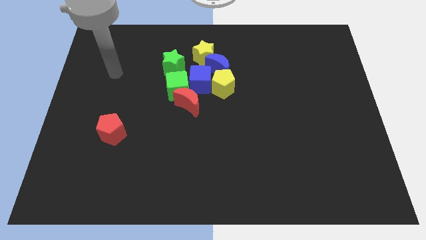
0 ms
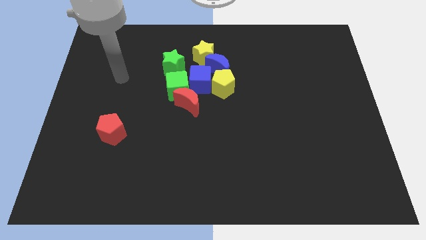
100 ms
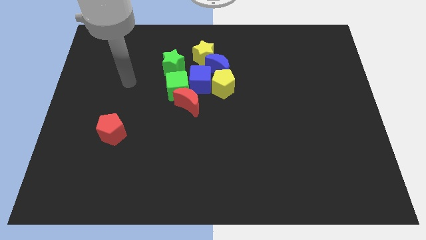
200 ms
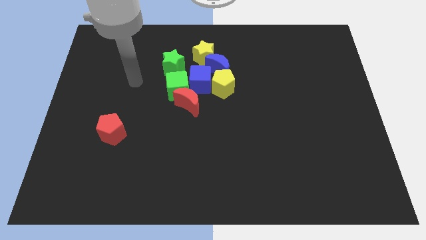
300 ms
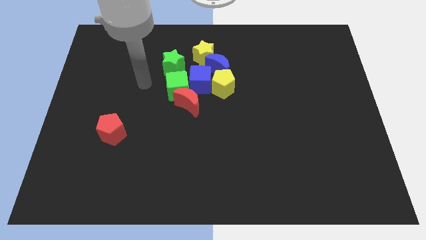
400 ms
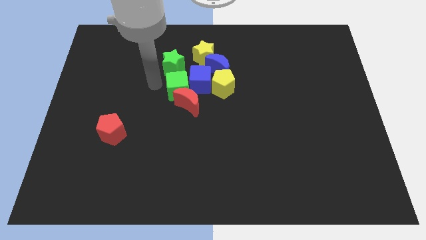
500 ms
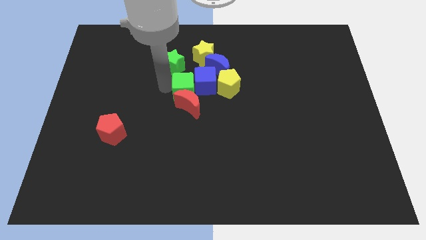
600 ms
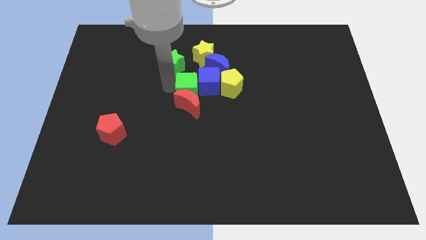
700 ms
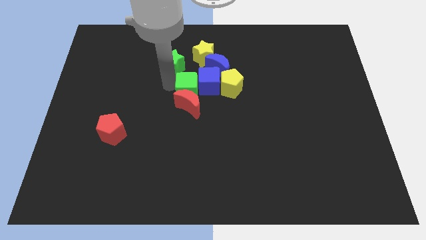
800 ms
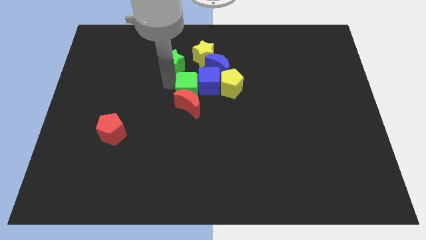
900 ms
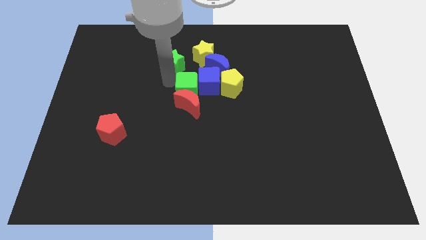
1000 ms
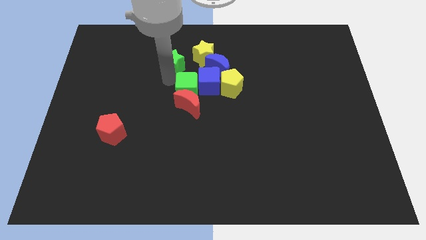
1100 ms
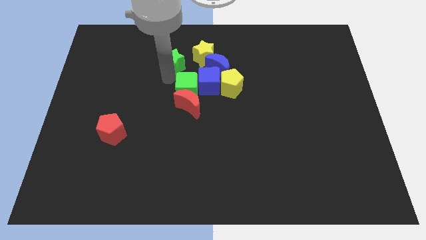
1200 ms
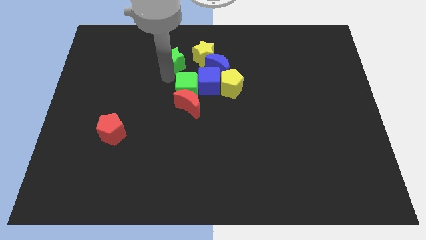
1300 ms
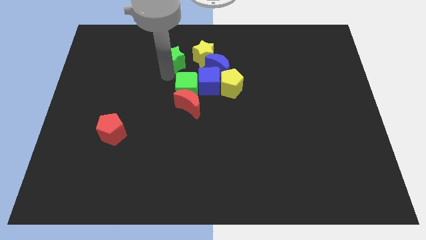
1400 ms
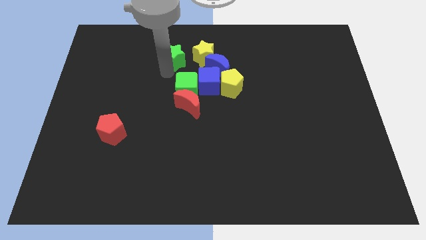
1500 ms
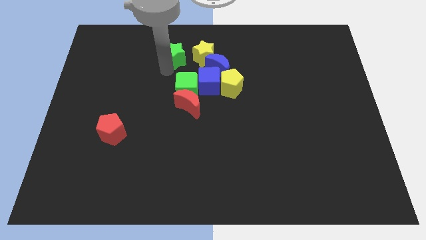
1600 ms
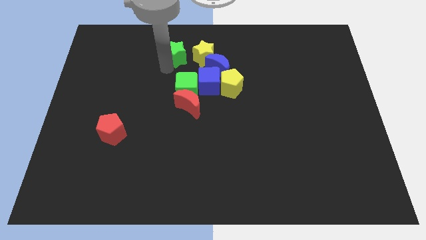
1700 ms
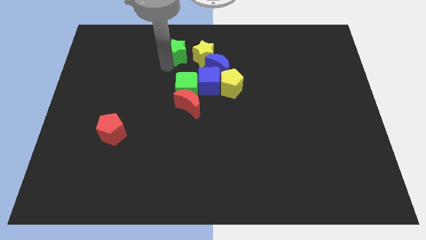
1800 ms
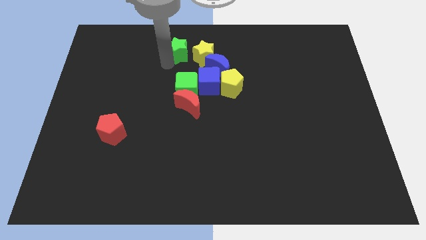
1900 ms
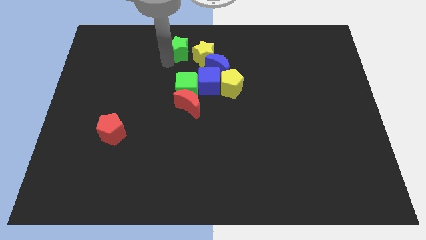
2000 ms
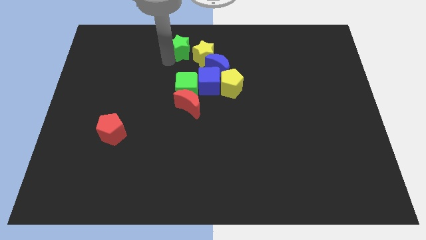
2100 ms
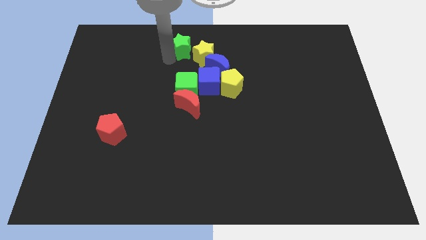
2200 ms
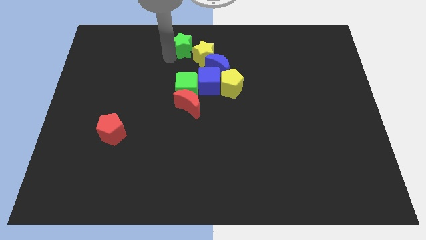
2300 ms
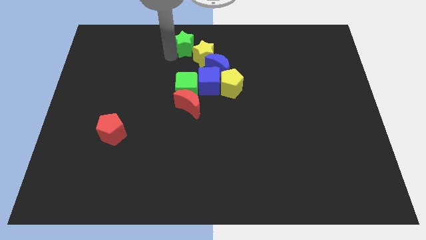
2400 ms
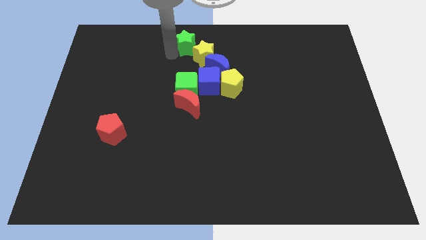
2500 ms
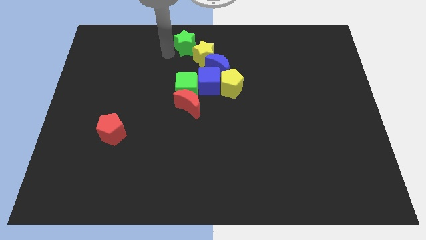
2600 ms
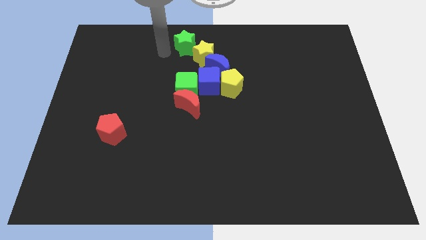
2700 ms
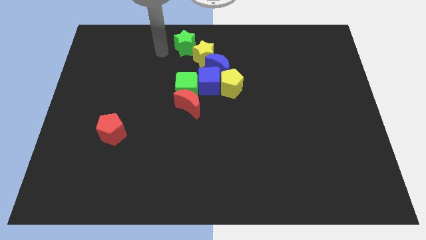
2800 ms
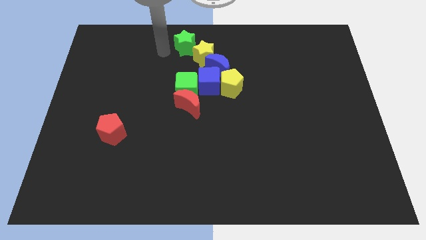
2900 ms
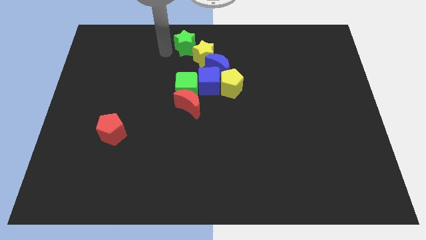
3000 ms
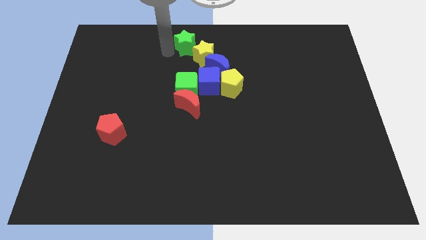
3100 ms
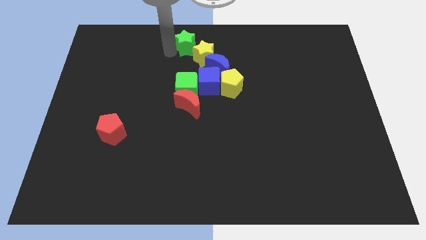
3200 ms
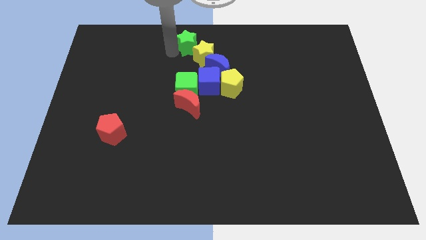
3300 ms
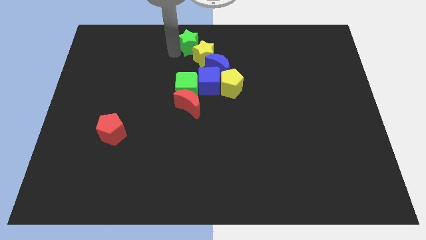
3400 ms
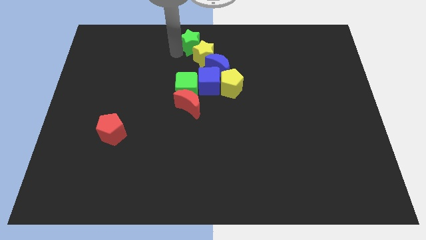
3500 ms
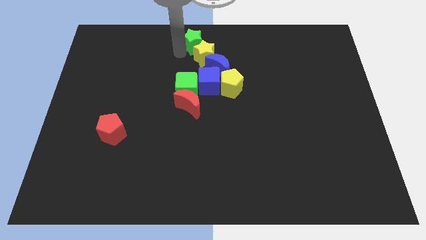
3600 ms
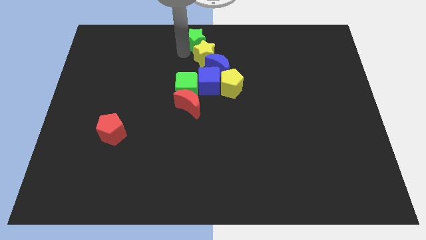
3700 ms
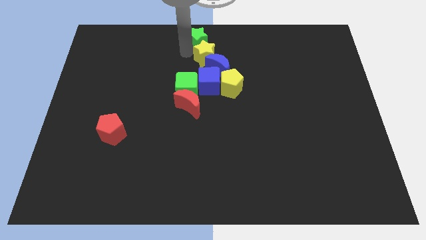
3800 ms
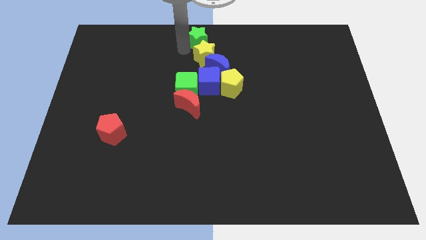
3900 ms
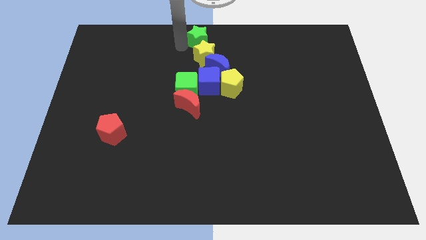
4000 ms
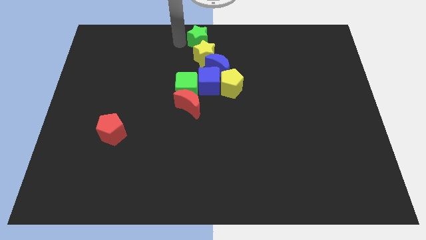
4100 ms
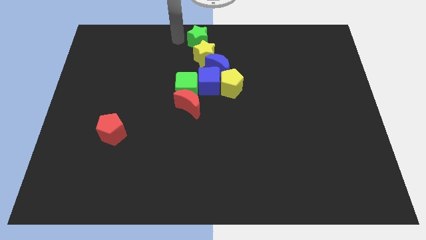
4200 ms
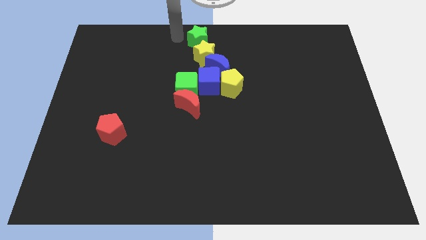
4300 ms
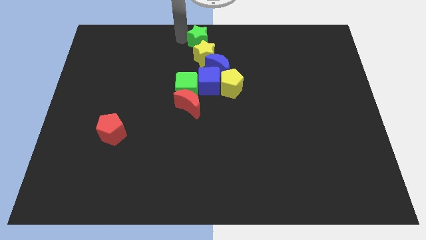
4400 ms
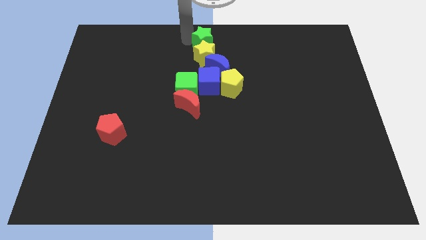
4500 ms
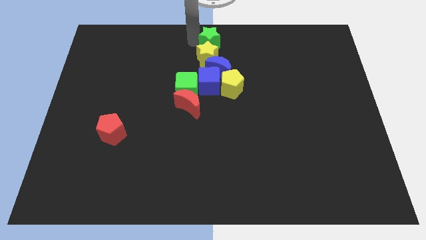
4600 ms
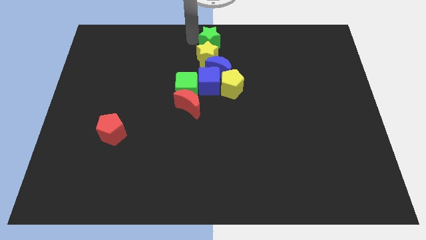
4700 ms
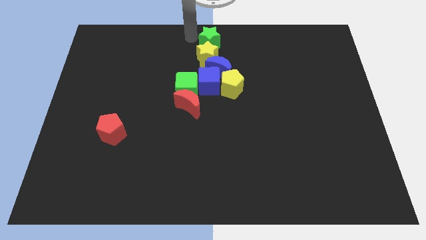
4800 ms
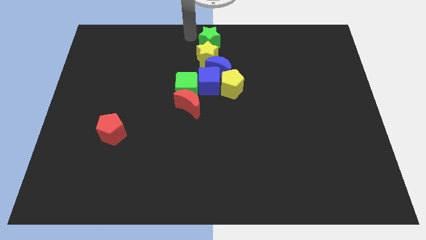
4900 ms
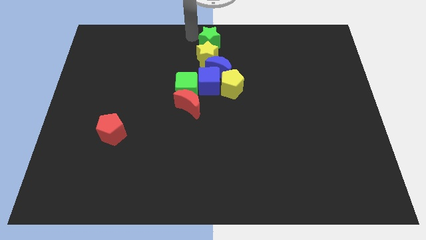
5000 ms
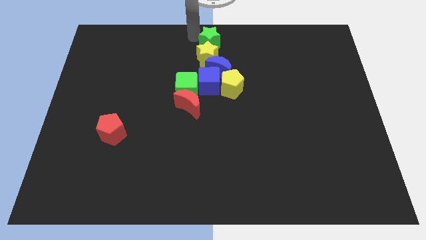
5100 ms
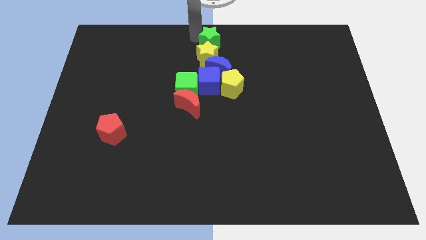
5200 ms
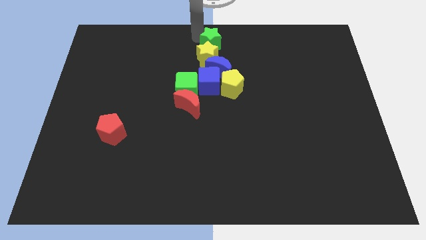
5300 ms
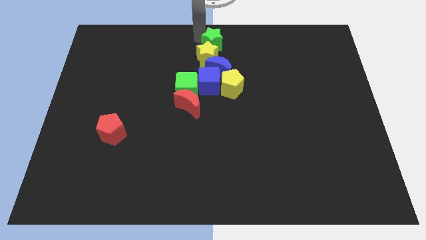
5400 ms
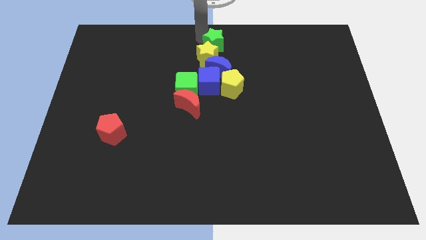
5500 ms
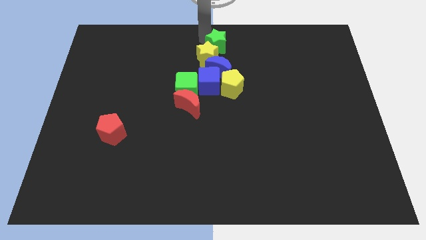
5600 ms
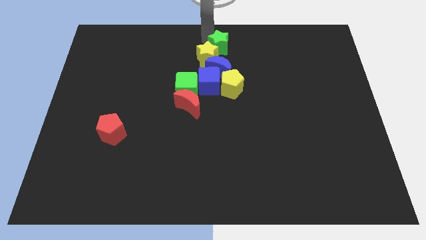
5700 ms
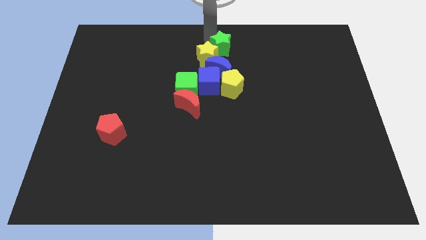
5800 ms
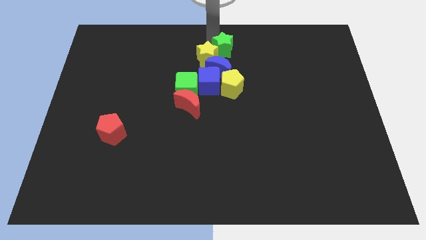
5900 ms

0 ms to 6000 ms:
push the green star to the top right side of the blue moon

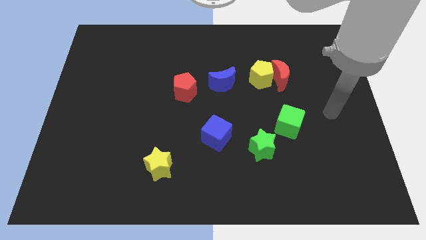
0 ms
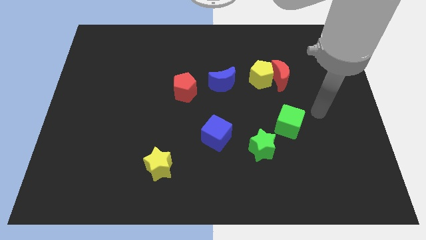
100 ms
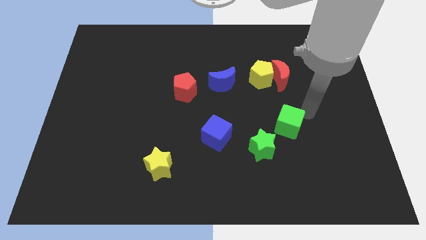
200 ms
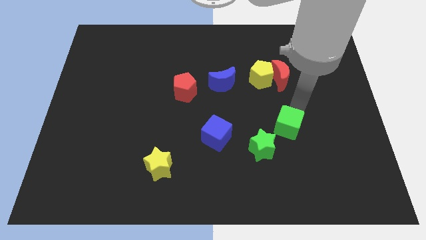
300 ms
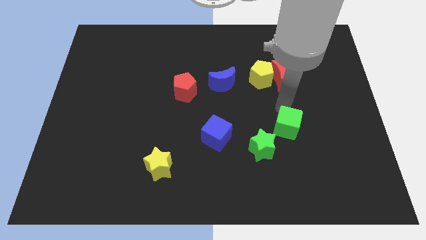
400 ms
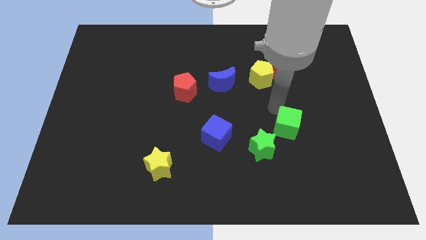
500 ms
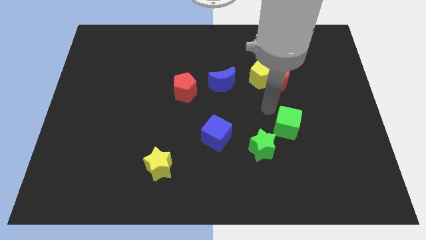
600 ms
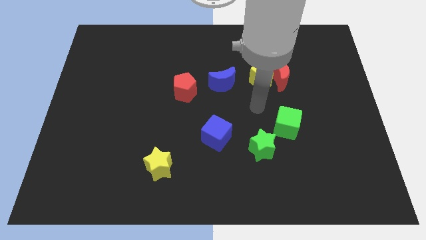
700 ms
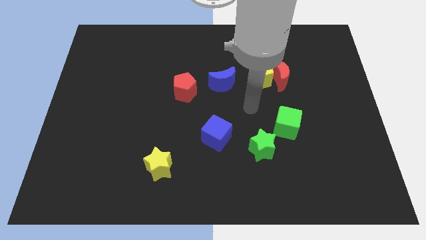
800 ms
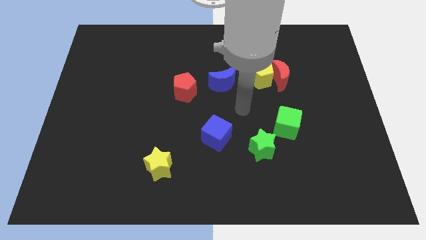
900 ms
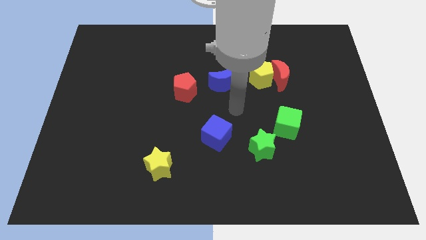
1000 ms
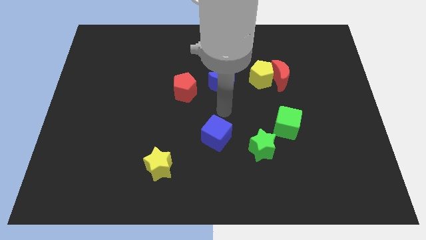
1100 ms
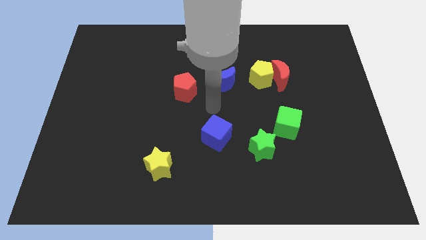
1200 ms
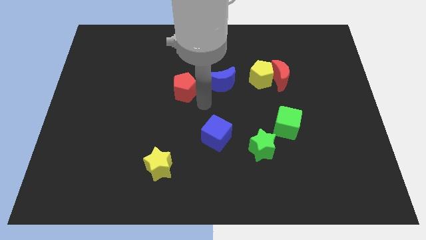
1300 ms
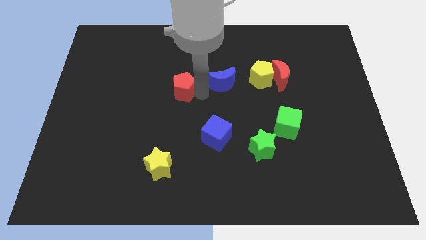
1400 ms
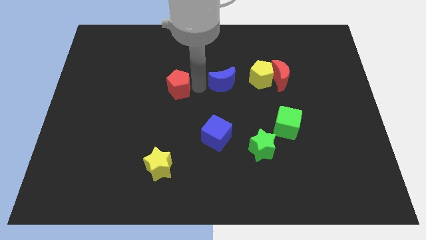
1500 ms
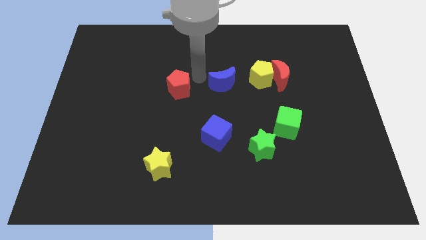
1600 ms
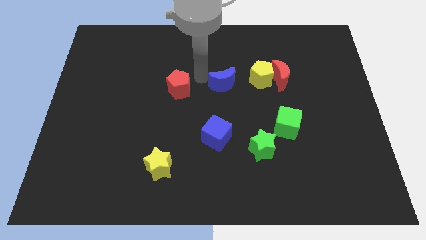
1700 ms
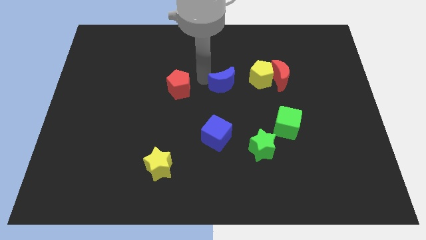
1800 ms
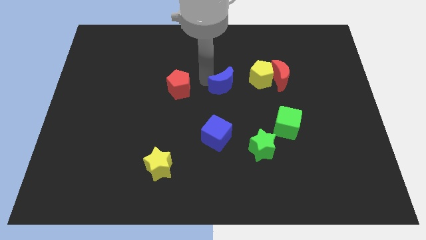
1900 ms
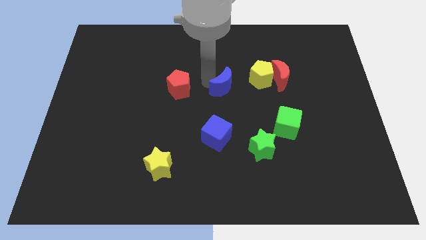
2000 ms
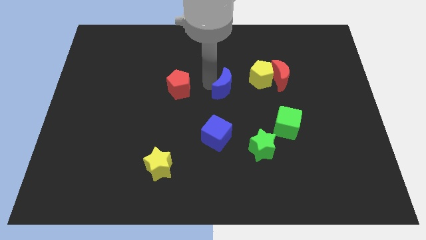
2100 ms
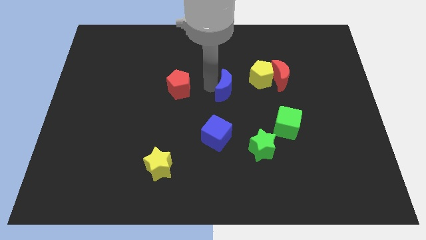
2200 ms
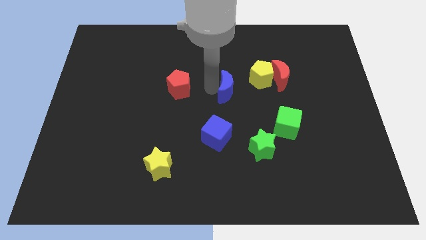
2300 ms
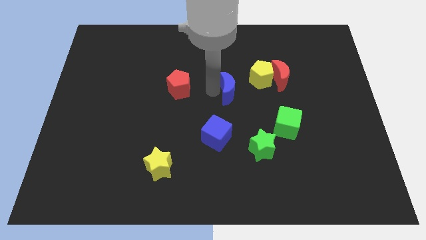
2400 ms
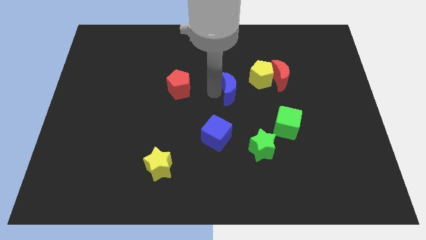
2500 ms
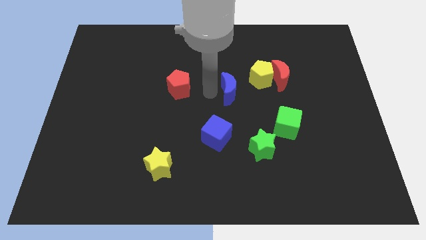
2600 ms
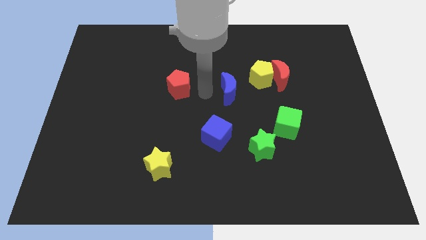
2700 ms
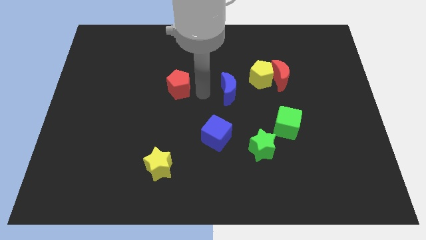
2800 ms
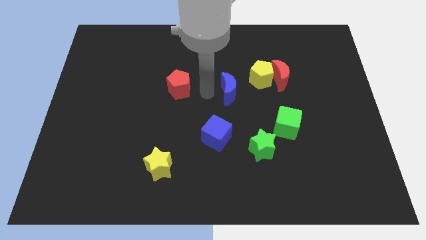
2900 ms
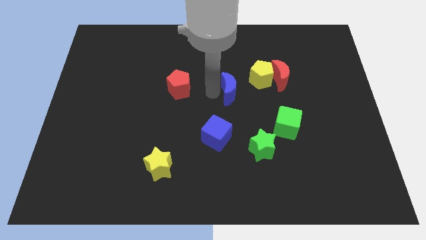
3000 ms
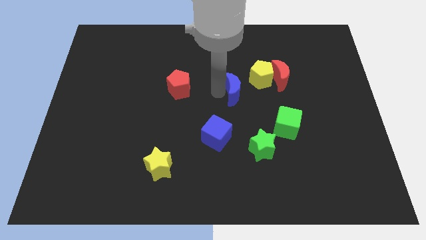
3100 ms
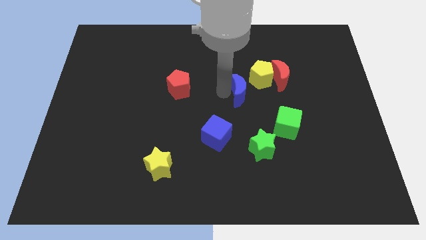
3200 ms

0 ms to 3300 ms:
push the blue moon to the bottom left of the red moon
